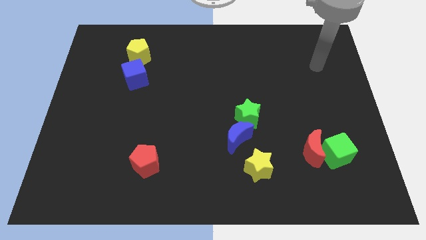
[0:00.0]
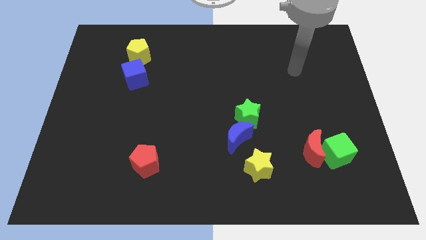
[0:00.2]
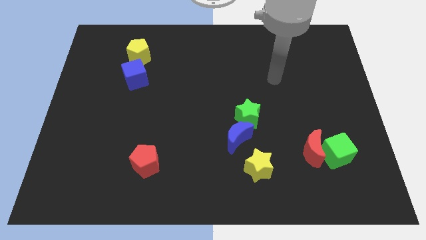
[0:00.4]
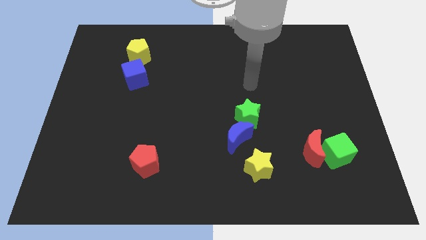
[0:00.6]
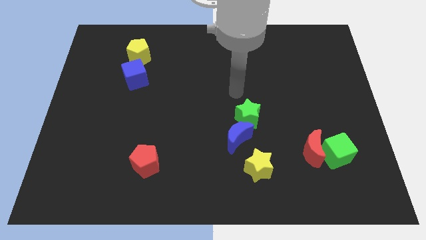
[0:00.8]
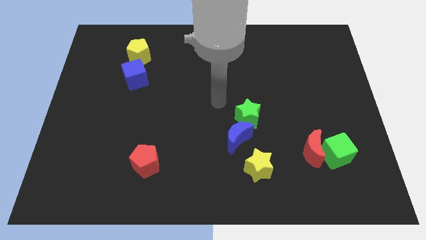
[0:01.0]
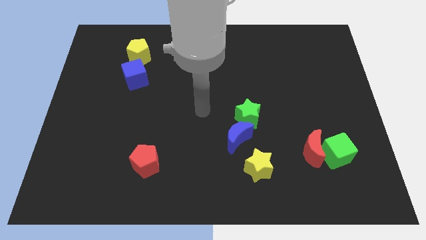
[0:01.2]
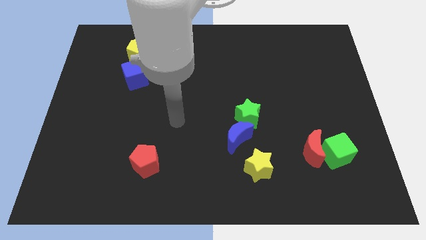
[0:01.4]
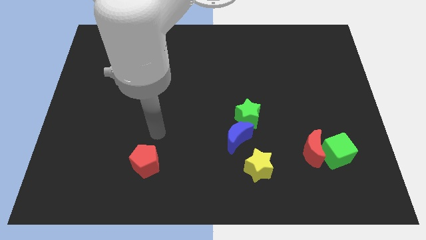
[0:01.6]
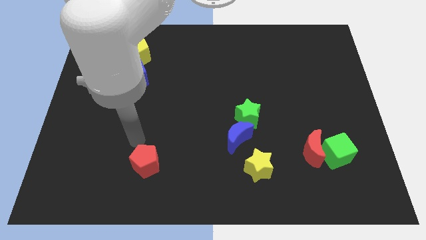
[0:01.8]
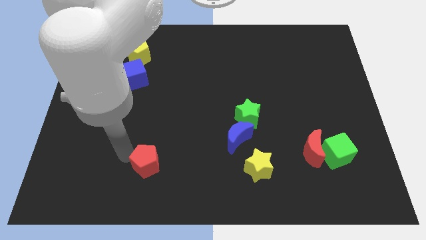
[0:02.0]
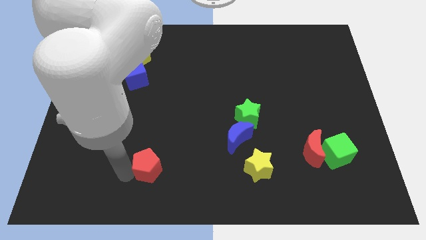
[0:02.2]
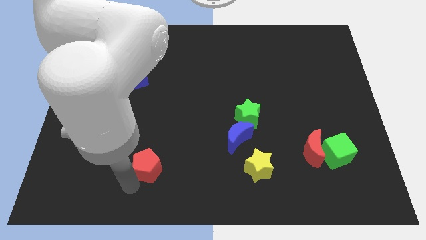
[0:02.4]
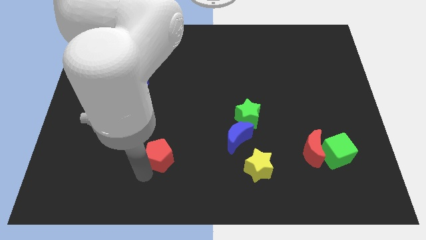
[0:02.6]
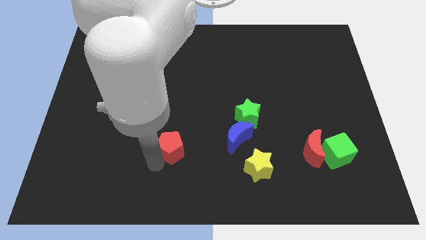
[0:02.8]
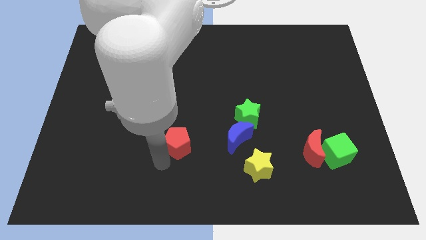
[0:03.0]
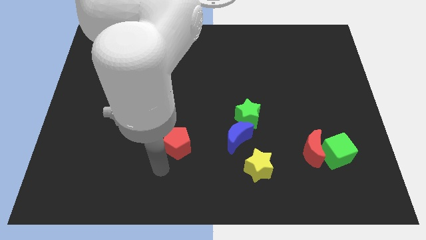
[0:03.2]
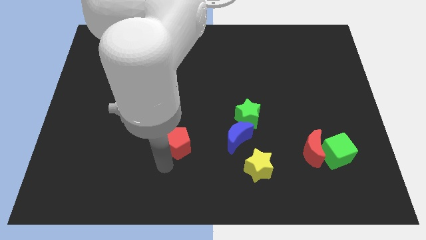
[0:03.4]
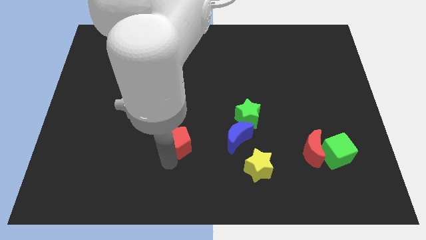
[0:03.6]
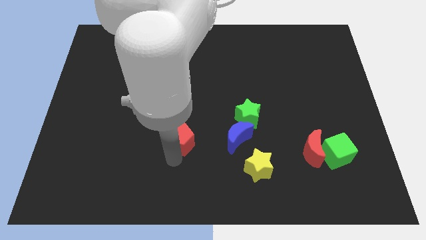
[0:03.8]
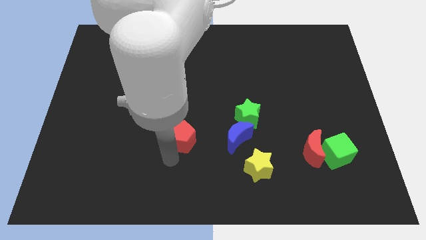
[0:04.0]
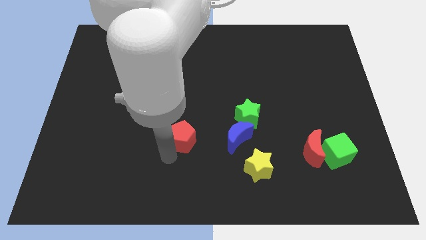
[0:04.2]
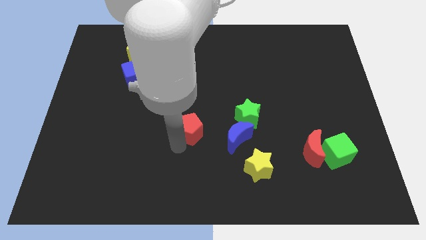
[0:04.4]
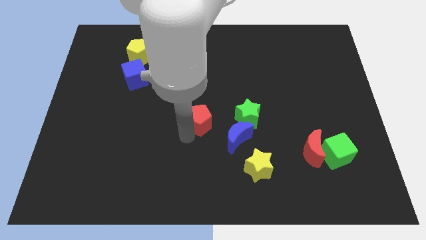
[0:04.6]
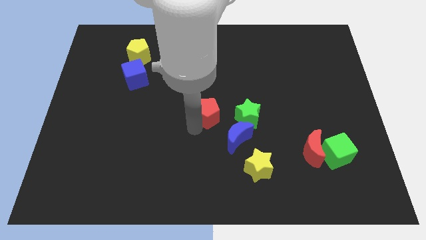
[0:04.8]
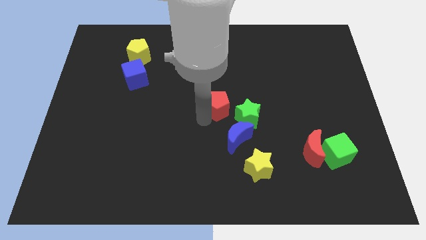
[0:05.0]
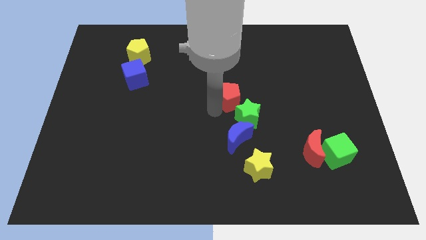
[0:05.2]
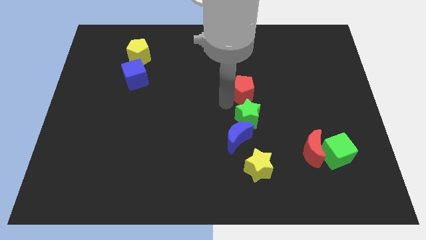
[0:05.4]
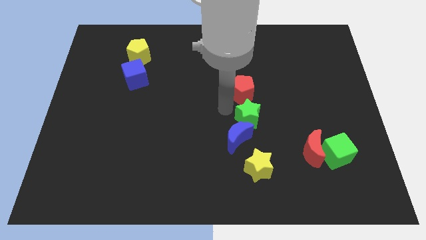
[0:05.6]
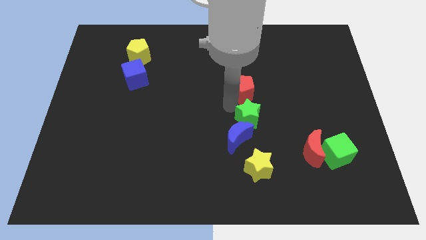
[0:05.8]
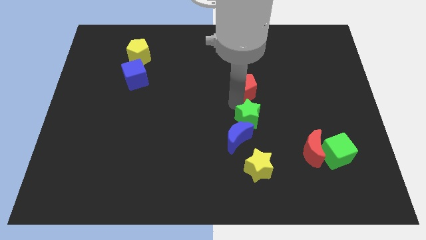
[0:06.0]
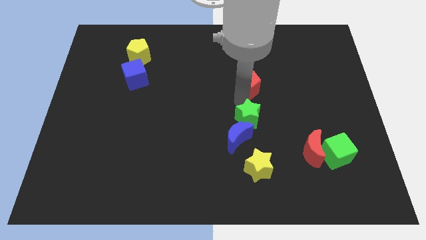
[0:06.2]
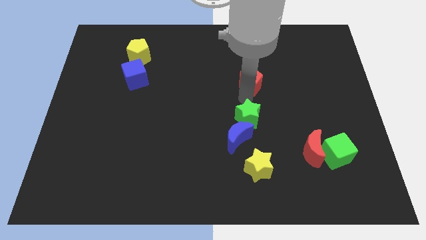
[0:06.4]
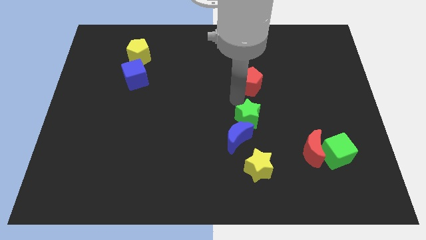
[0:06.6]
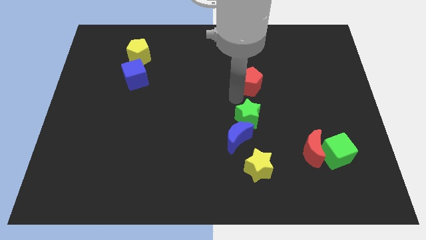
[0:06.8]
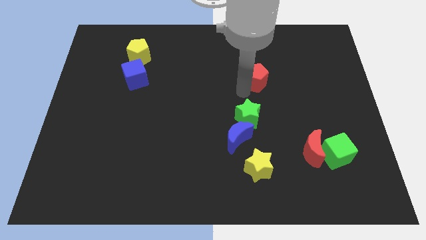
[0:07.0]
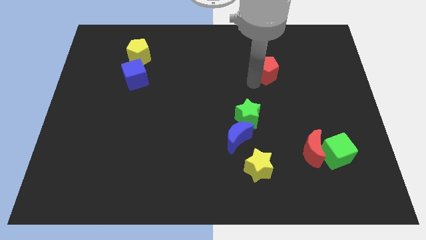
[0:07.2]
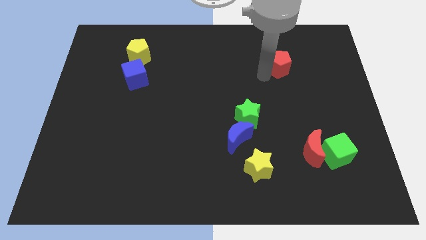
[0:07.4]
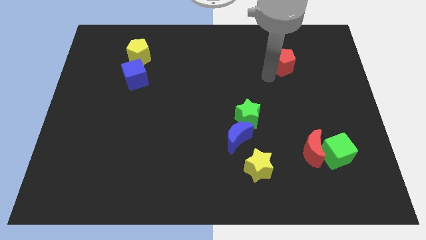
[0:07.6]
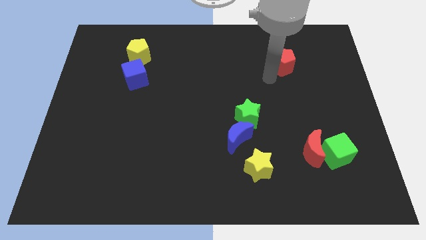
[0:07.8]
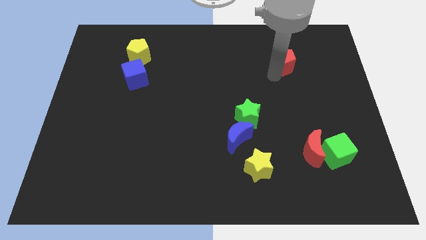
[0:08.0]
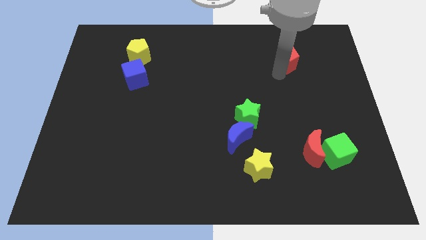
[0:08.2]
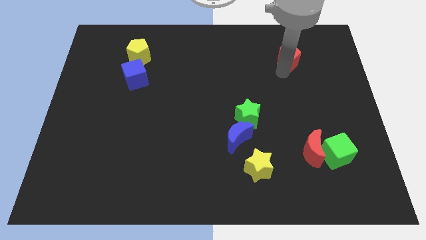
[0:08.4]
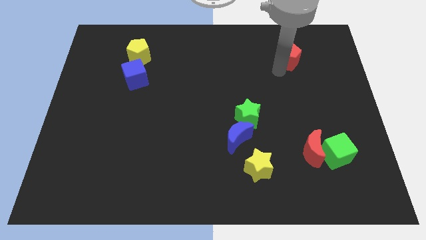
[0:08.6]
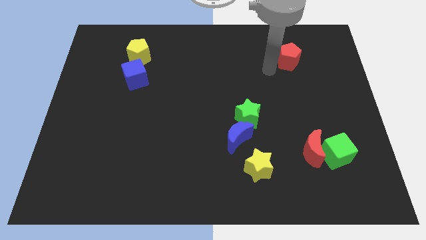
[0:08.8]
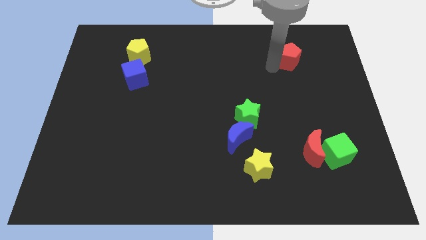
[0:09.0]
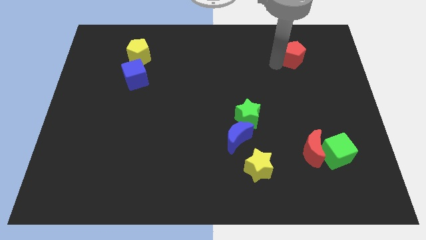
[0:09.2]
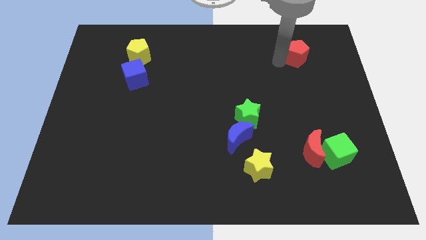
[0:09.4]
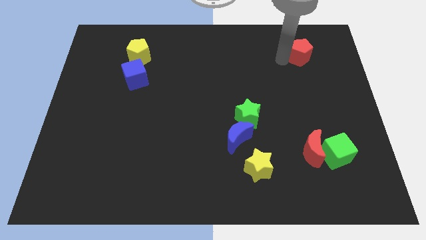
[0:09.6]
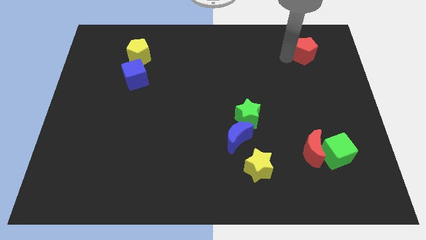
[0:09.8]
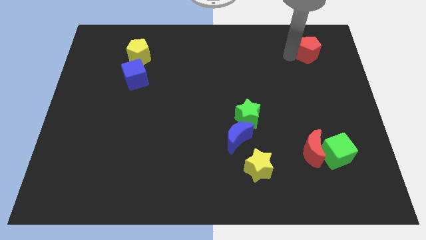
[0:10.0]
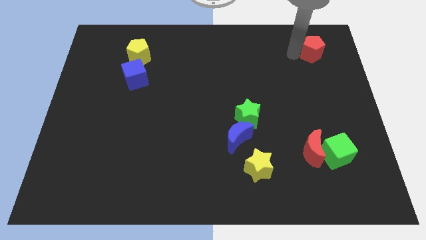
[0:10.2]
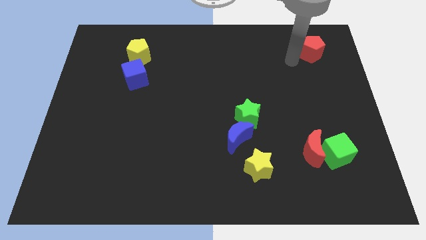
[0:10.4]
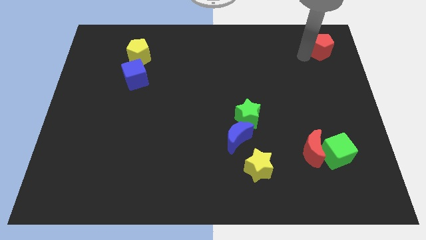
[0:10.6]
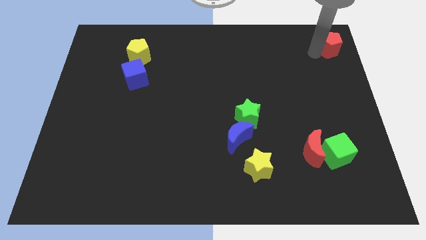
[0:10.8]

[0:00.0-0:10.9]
push the red pentagon to the top right corner

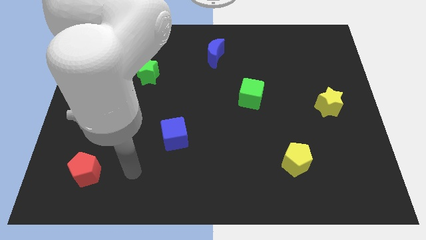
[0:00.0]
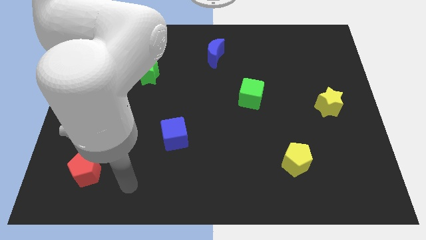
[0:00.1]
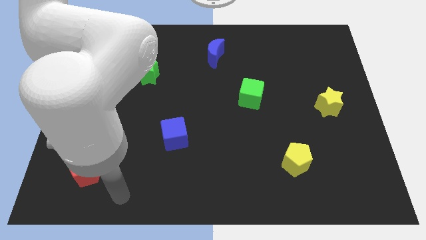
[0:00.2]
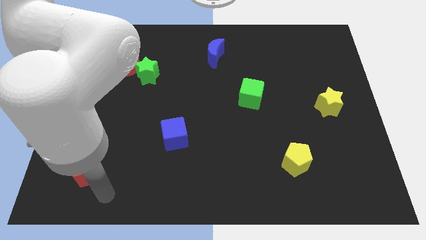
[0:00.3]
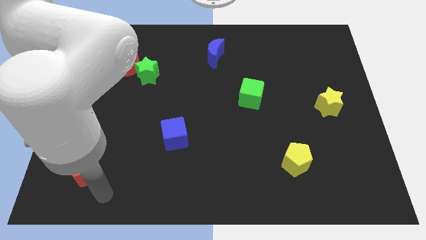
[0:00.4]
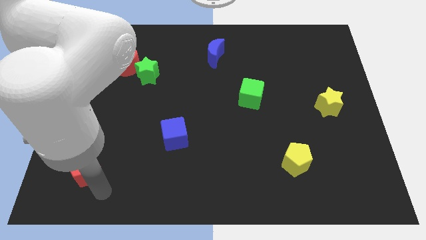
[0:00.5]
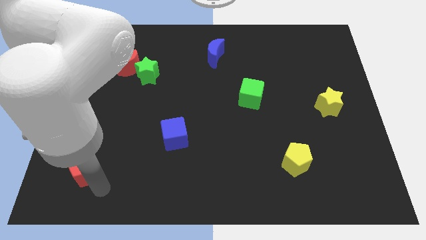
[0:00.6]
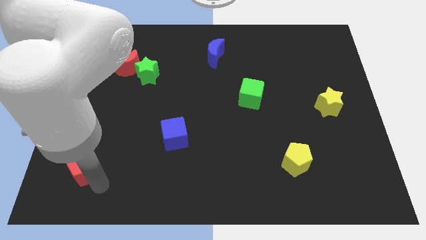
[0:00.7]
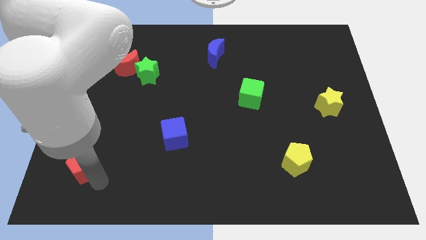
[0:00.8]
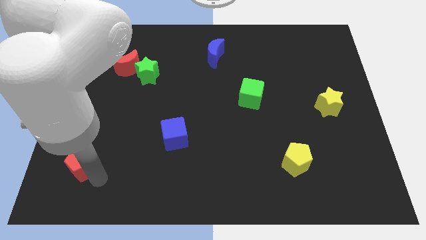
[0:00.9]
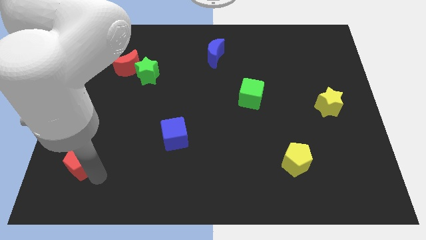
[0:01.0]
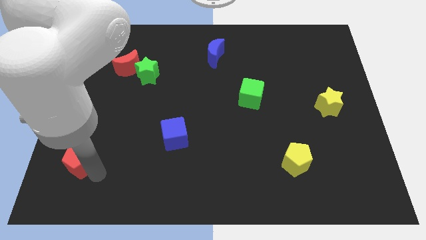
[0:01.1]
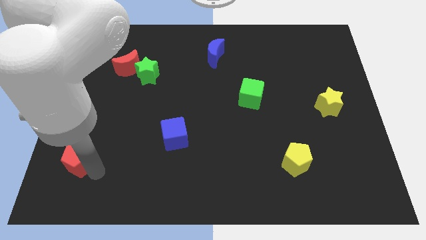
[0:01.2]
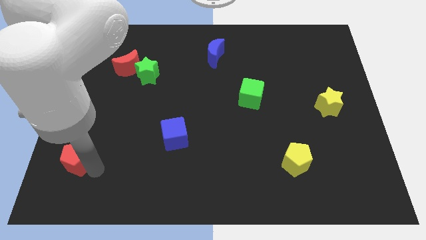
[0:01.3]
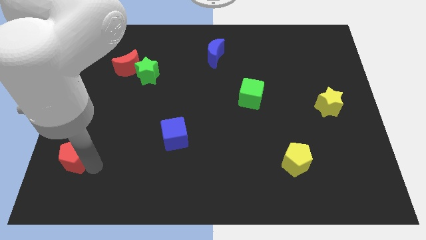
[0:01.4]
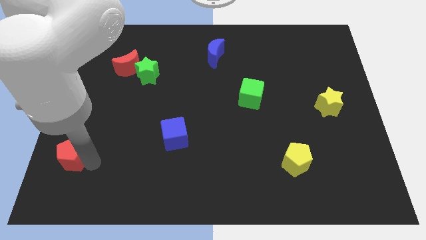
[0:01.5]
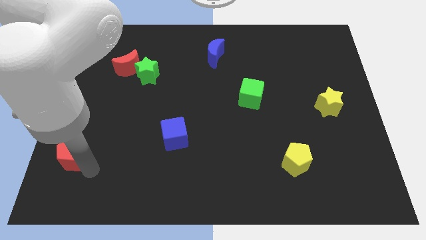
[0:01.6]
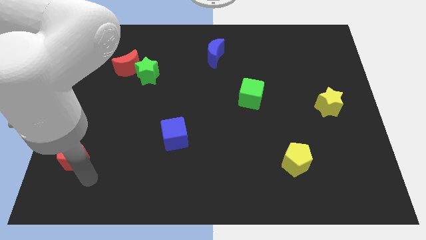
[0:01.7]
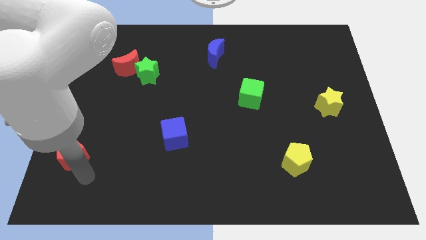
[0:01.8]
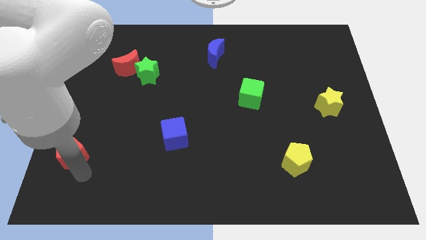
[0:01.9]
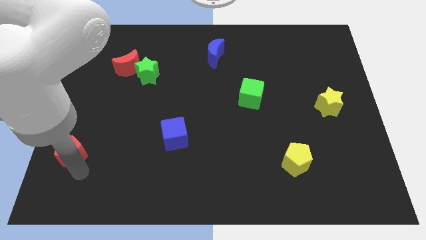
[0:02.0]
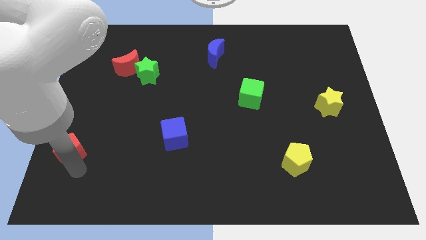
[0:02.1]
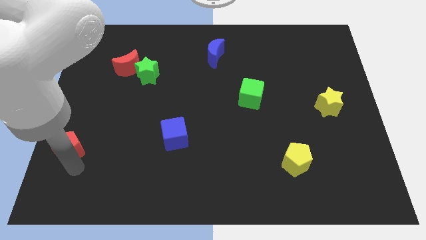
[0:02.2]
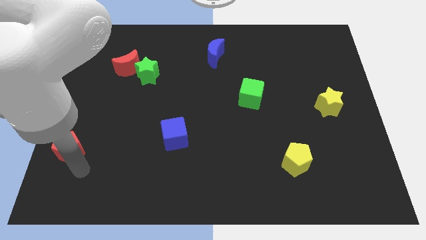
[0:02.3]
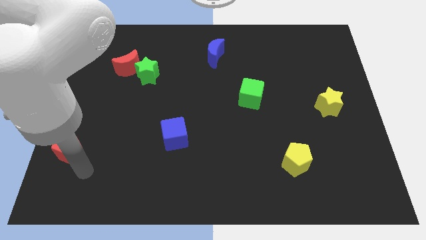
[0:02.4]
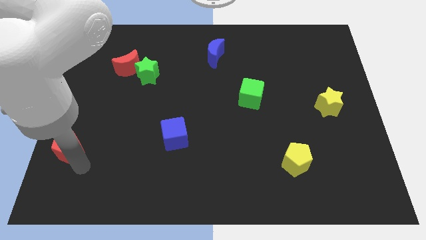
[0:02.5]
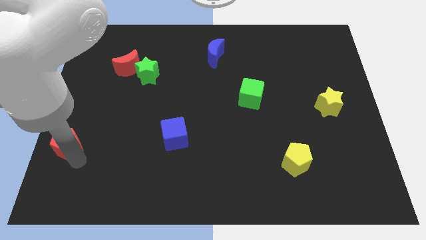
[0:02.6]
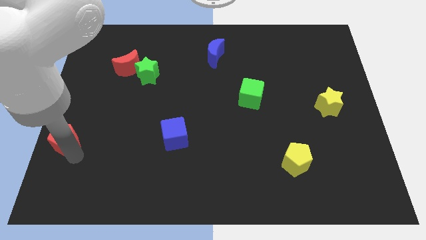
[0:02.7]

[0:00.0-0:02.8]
push the red pentagon to the center left
